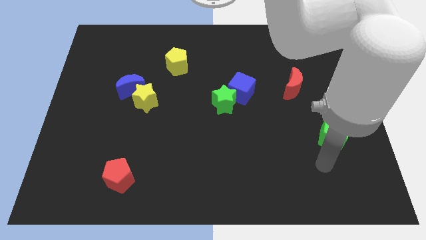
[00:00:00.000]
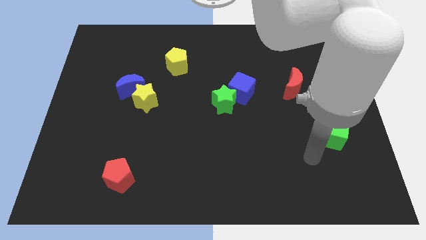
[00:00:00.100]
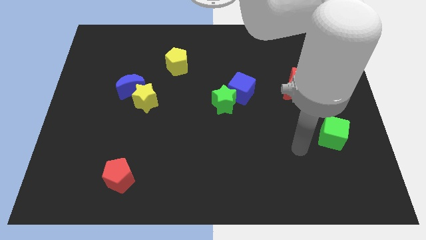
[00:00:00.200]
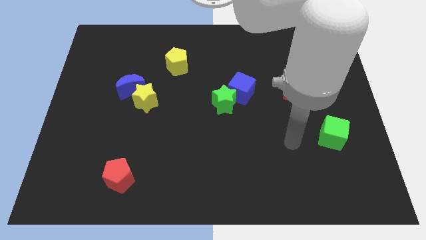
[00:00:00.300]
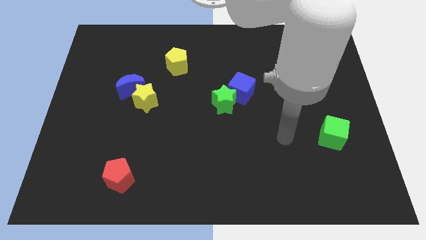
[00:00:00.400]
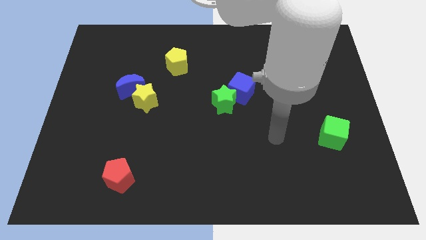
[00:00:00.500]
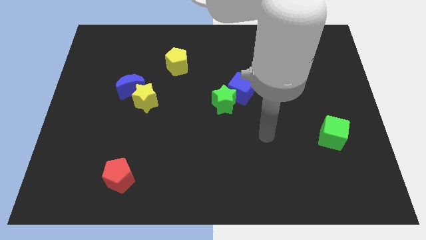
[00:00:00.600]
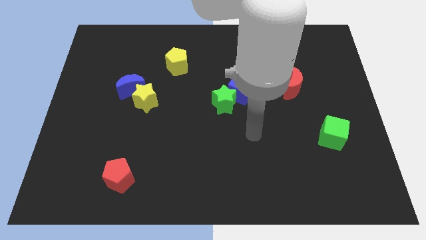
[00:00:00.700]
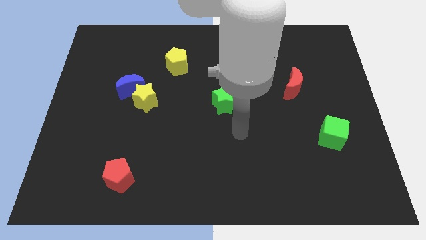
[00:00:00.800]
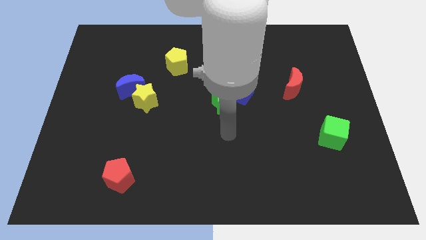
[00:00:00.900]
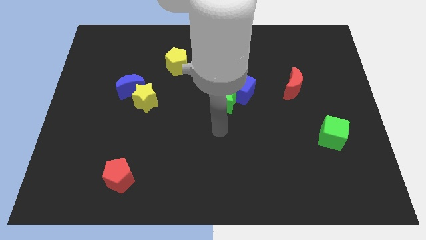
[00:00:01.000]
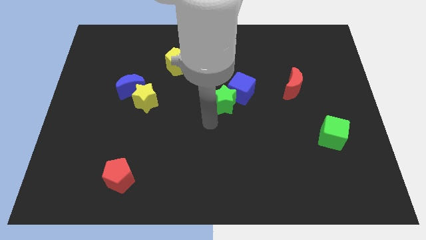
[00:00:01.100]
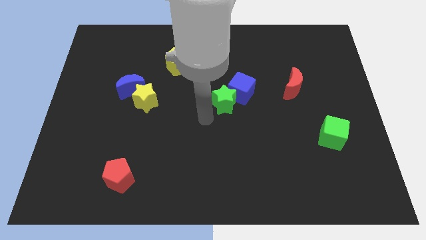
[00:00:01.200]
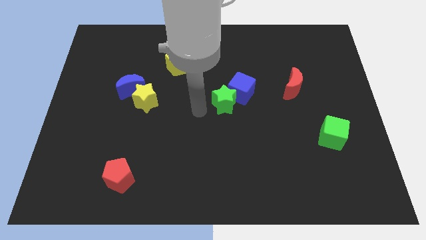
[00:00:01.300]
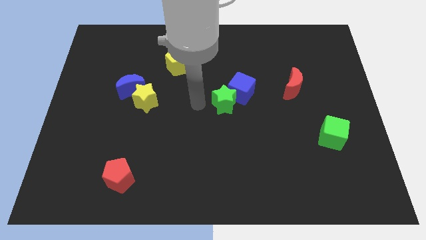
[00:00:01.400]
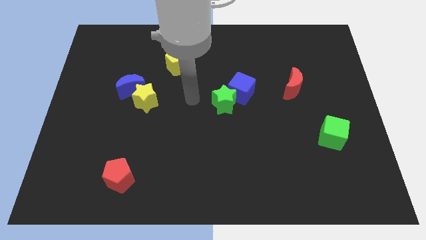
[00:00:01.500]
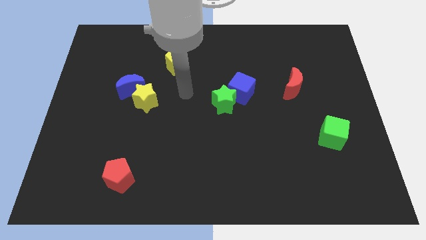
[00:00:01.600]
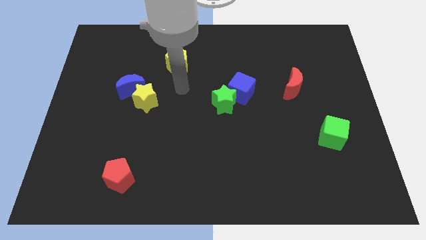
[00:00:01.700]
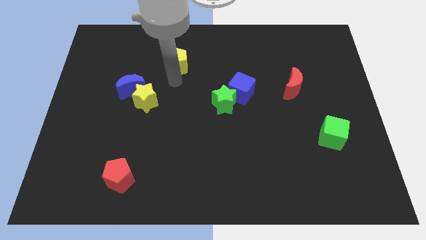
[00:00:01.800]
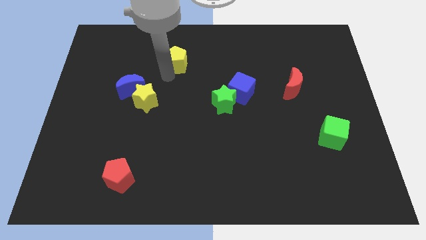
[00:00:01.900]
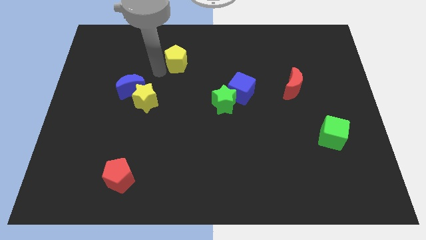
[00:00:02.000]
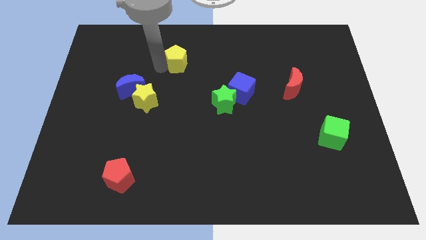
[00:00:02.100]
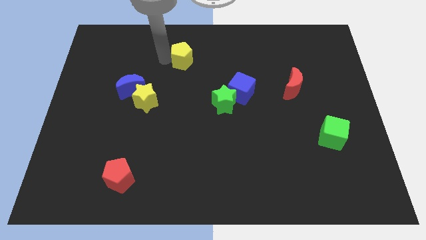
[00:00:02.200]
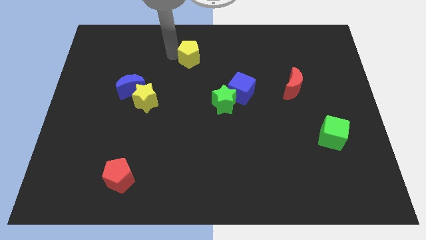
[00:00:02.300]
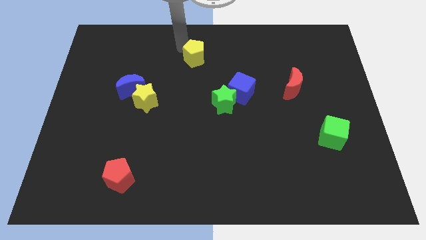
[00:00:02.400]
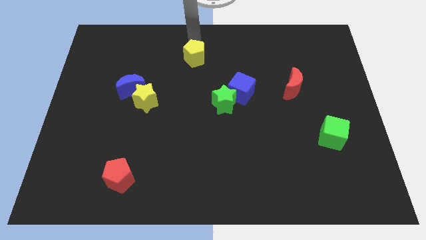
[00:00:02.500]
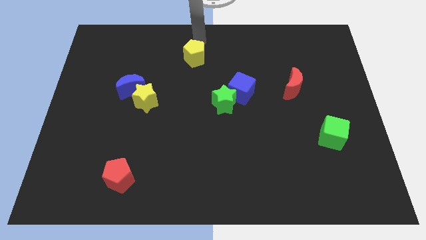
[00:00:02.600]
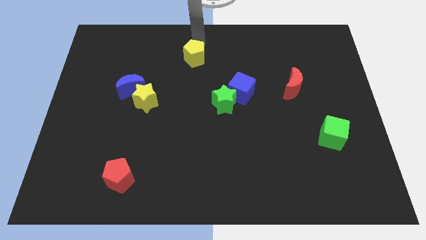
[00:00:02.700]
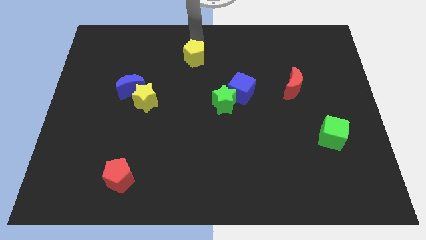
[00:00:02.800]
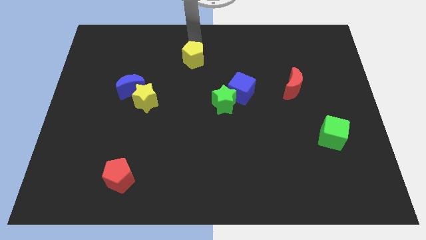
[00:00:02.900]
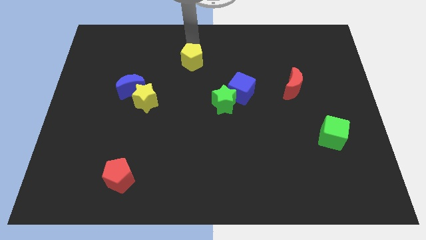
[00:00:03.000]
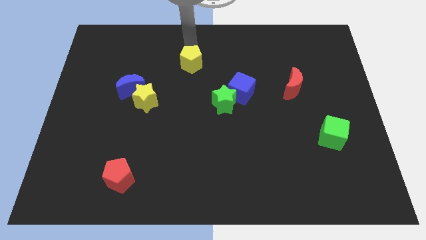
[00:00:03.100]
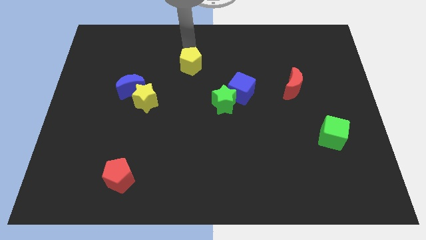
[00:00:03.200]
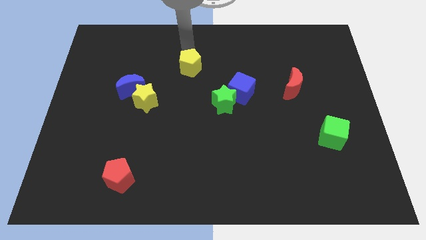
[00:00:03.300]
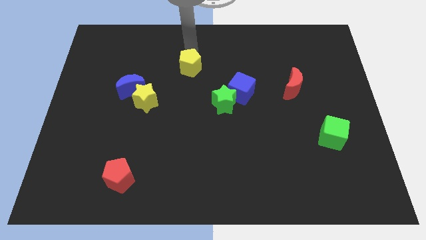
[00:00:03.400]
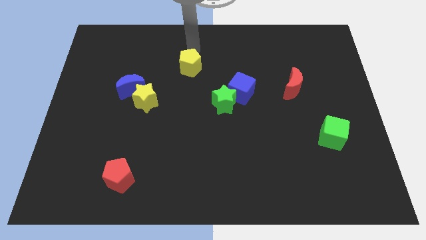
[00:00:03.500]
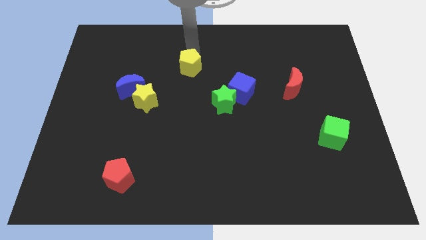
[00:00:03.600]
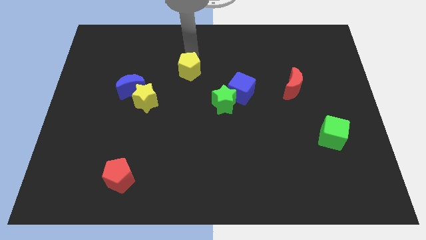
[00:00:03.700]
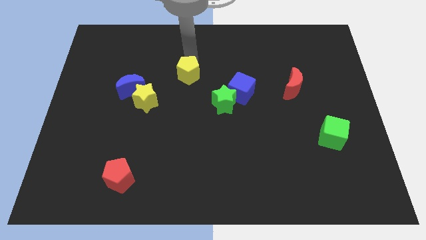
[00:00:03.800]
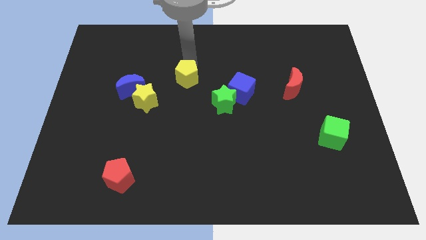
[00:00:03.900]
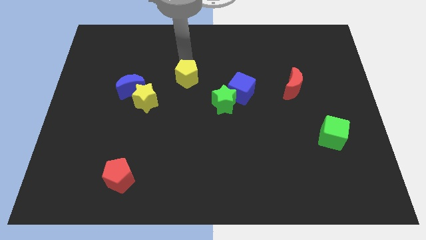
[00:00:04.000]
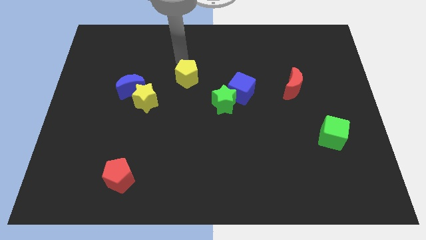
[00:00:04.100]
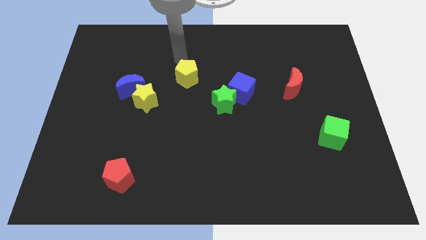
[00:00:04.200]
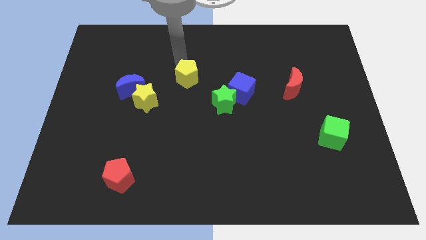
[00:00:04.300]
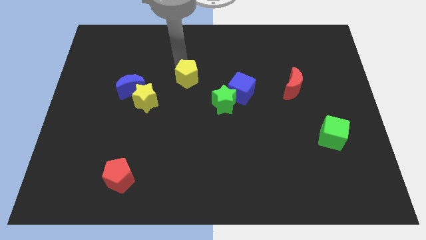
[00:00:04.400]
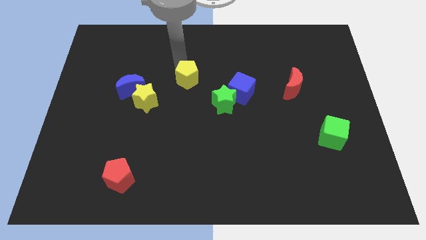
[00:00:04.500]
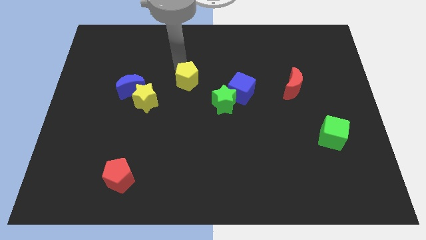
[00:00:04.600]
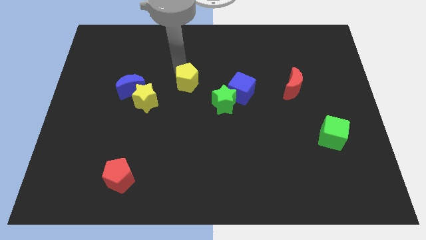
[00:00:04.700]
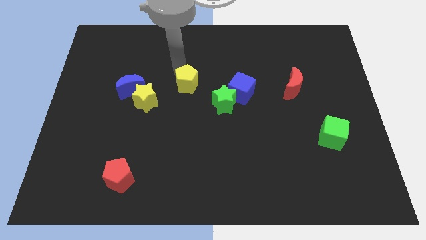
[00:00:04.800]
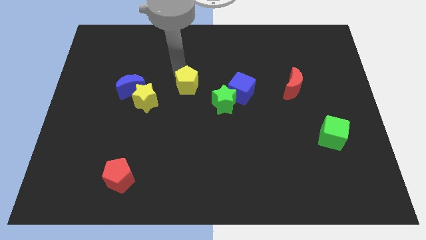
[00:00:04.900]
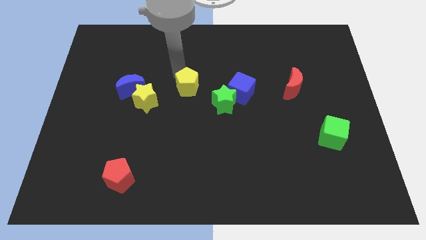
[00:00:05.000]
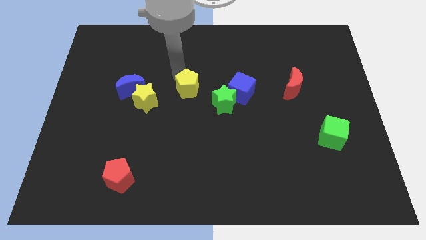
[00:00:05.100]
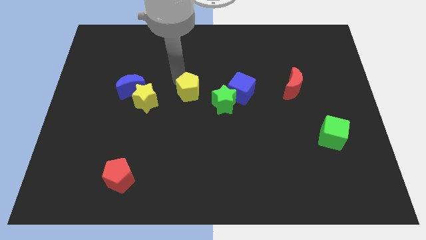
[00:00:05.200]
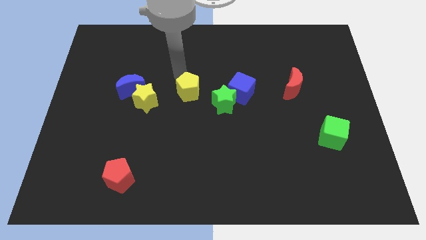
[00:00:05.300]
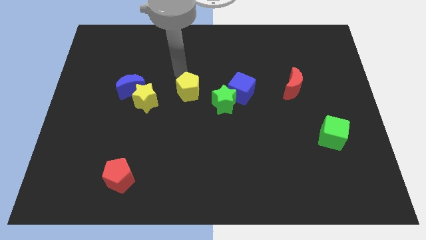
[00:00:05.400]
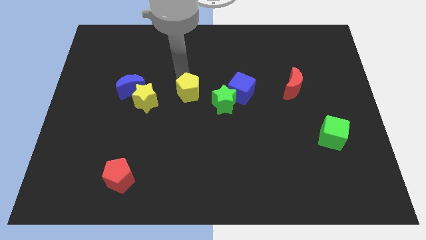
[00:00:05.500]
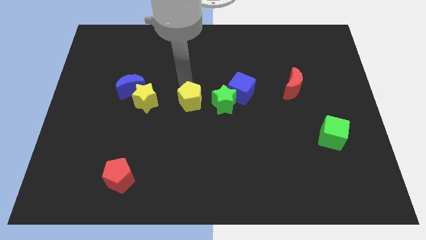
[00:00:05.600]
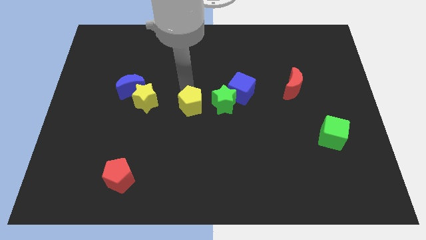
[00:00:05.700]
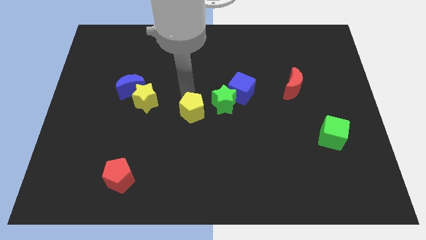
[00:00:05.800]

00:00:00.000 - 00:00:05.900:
slide the yellow pentagon to the bottom left side of the green star

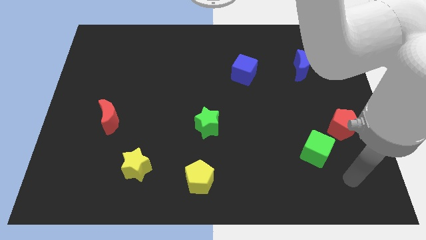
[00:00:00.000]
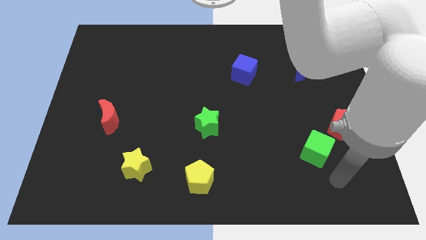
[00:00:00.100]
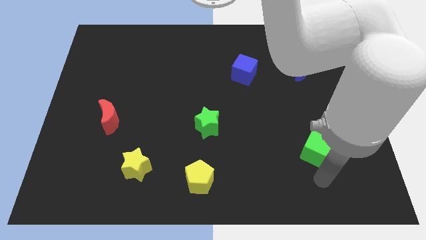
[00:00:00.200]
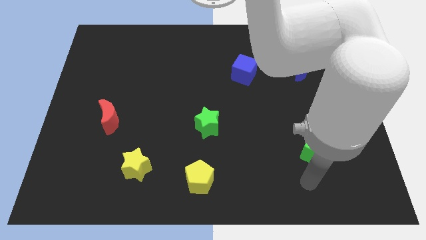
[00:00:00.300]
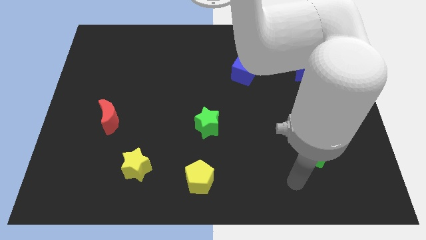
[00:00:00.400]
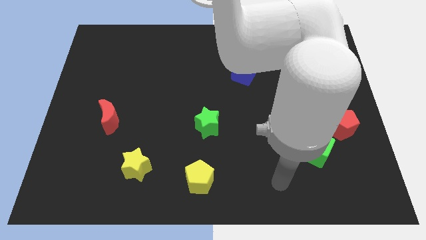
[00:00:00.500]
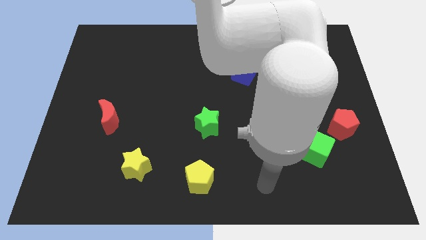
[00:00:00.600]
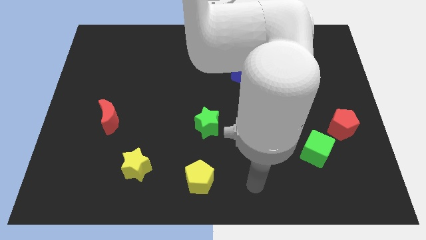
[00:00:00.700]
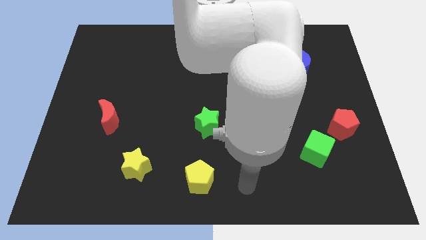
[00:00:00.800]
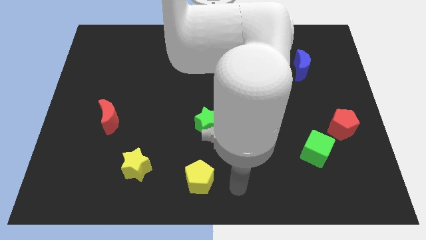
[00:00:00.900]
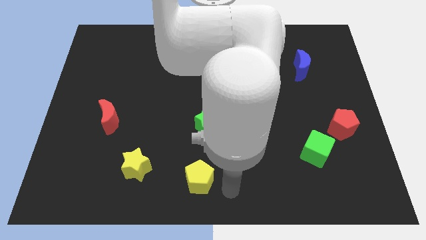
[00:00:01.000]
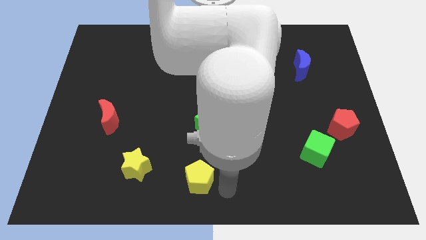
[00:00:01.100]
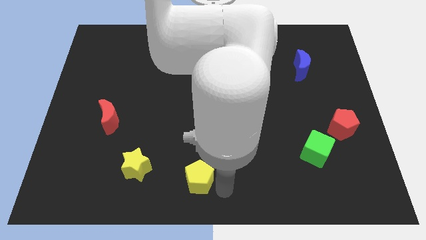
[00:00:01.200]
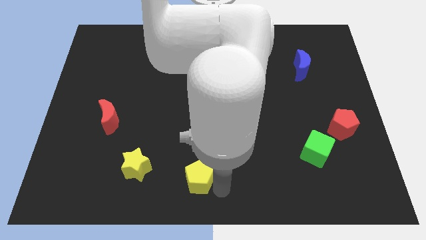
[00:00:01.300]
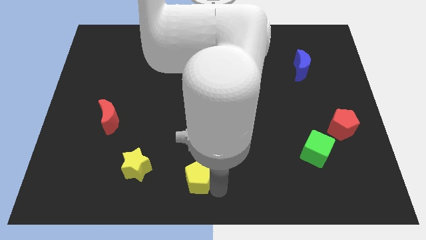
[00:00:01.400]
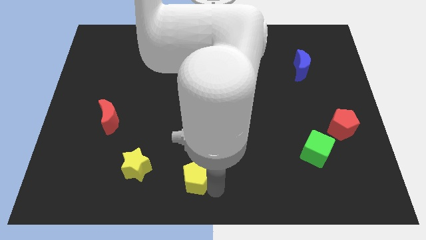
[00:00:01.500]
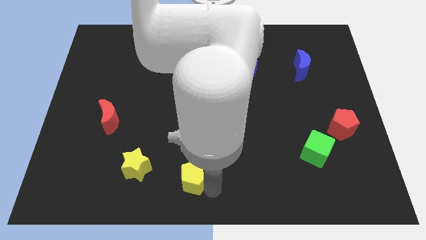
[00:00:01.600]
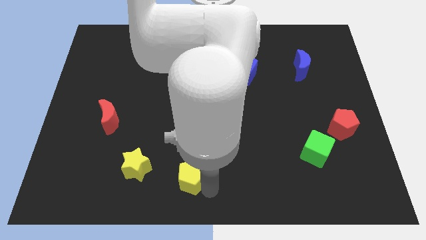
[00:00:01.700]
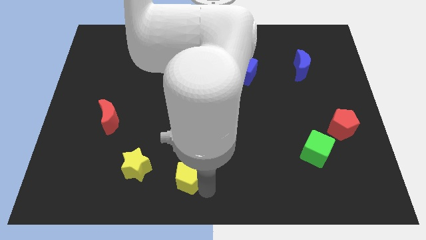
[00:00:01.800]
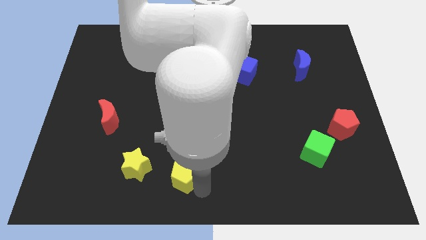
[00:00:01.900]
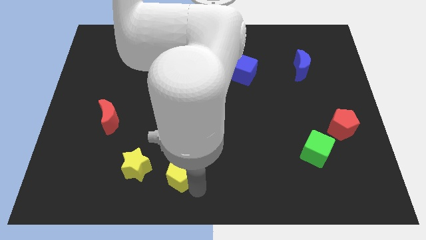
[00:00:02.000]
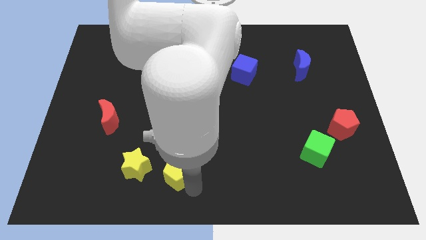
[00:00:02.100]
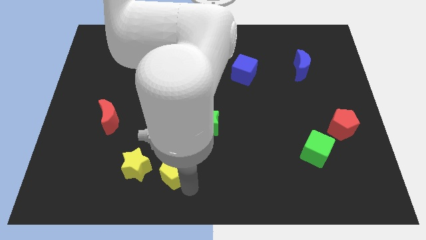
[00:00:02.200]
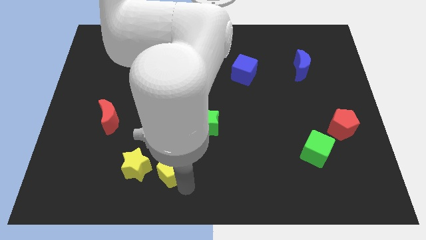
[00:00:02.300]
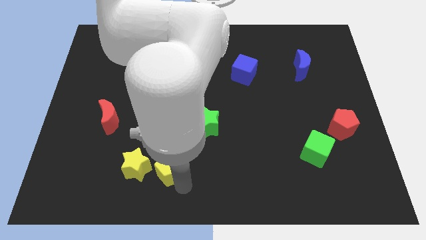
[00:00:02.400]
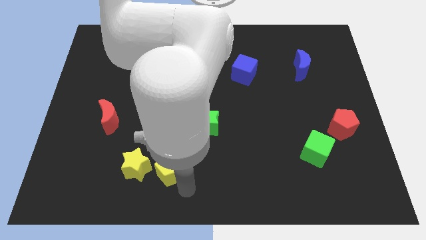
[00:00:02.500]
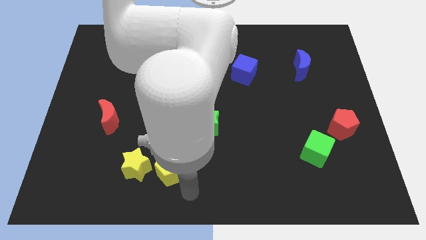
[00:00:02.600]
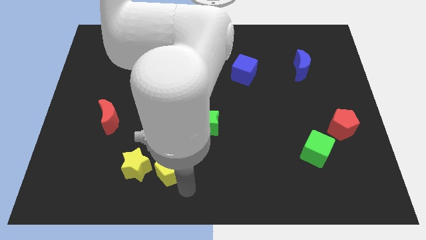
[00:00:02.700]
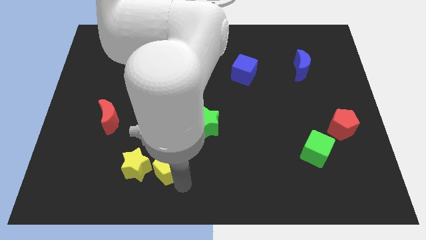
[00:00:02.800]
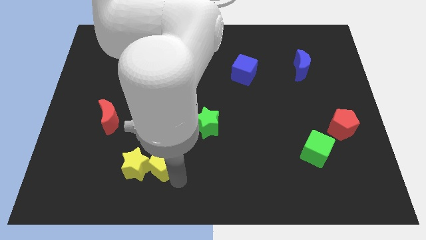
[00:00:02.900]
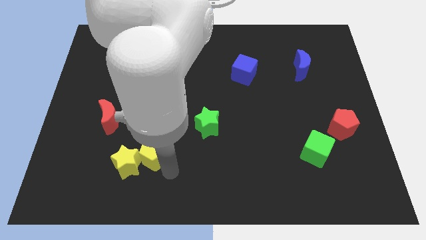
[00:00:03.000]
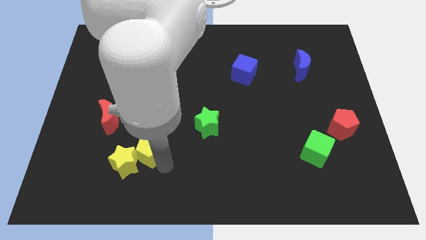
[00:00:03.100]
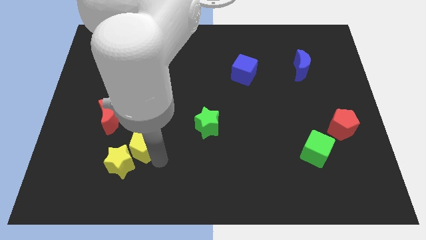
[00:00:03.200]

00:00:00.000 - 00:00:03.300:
push the yellow pentagon to the bottom right of the red moon
